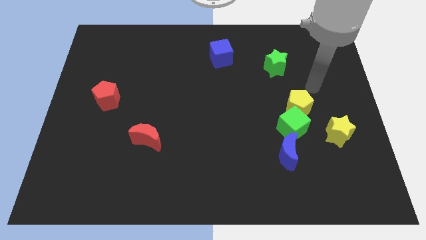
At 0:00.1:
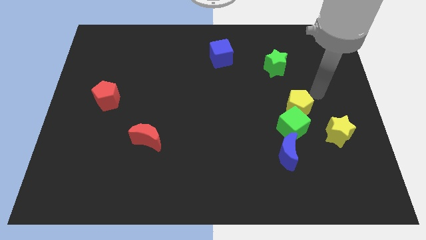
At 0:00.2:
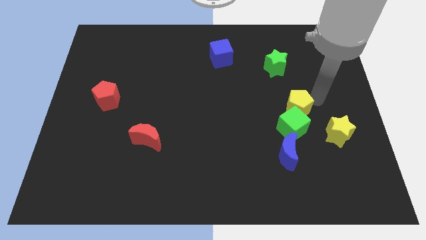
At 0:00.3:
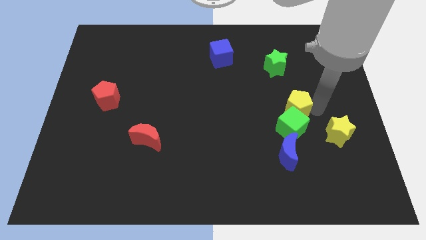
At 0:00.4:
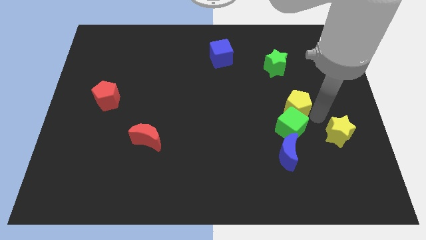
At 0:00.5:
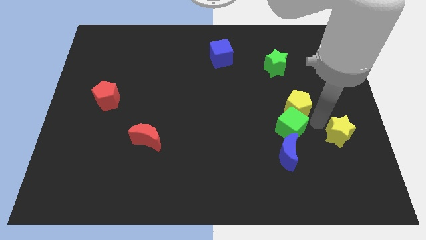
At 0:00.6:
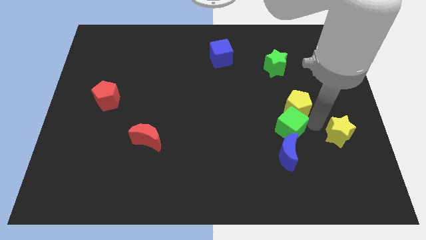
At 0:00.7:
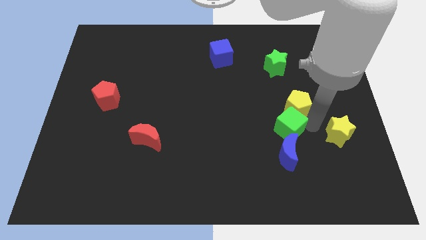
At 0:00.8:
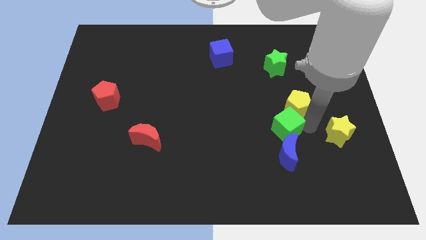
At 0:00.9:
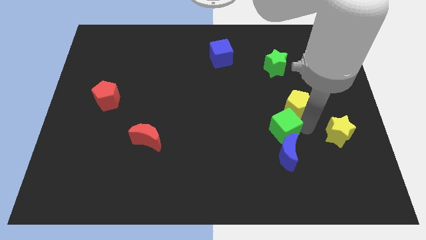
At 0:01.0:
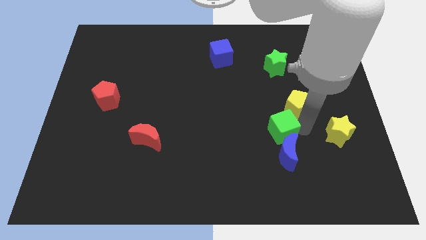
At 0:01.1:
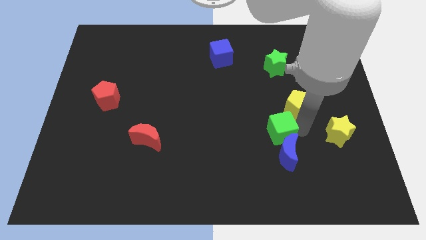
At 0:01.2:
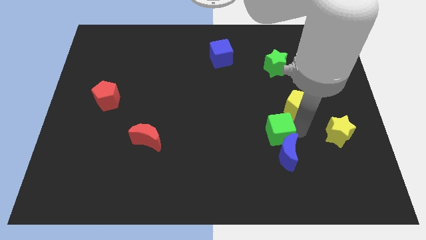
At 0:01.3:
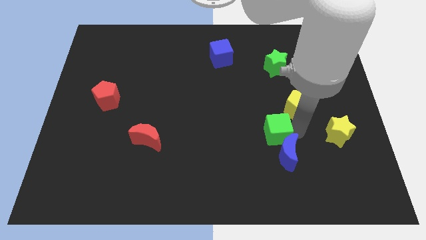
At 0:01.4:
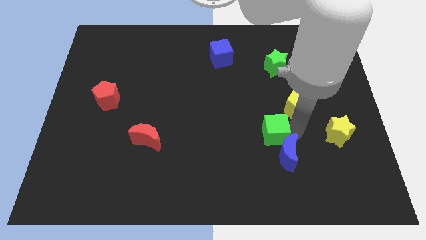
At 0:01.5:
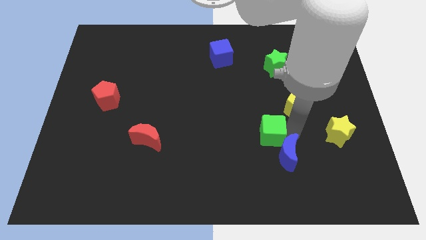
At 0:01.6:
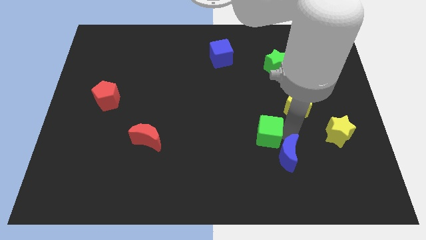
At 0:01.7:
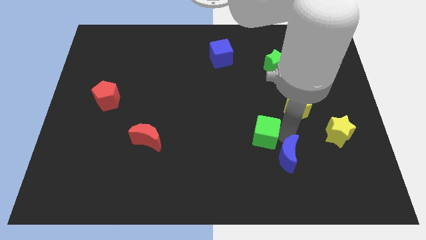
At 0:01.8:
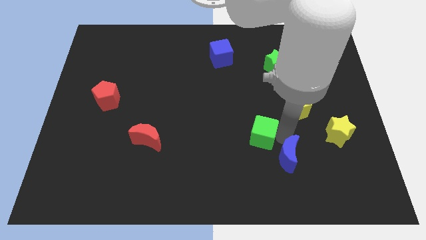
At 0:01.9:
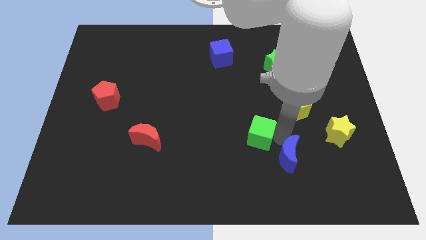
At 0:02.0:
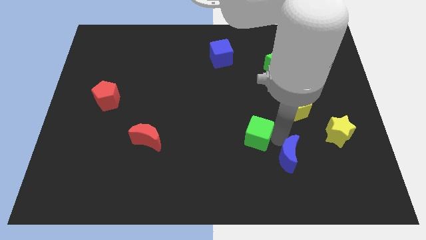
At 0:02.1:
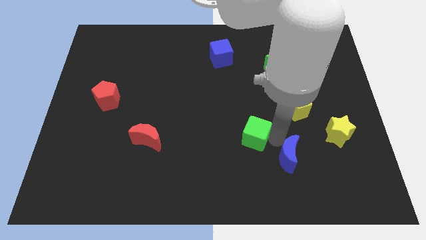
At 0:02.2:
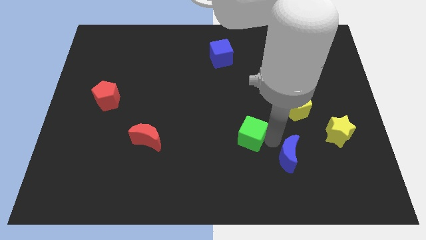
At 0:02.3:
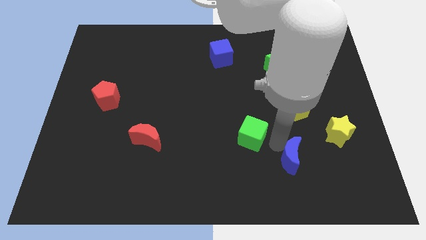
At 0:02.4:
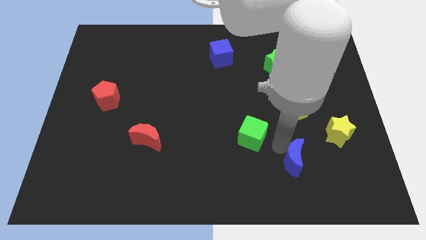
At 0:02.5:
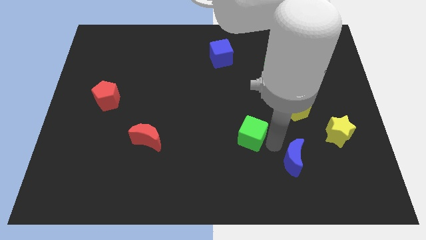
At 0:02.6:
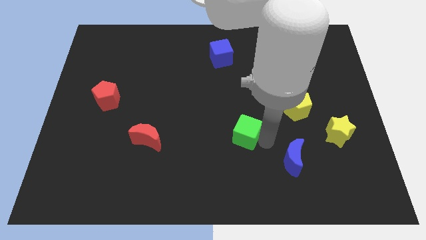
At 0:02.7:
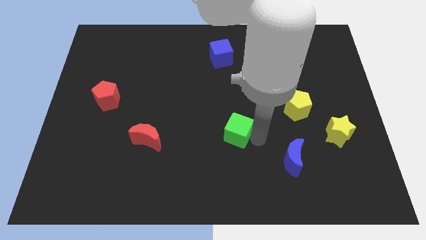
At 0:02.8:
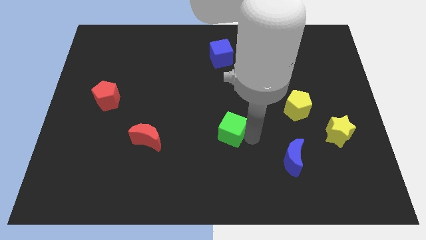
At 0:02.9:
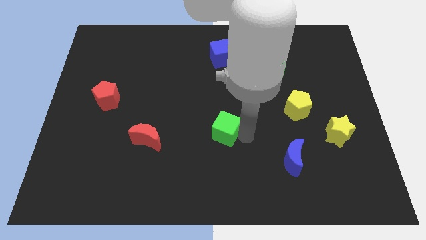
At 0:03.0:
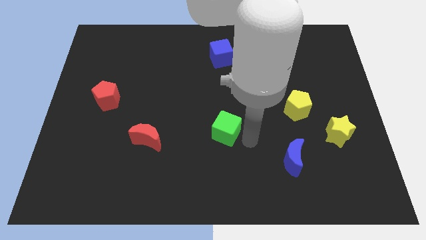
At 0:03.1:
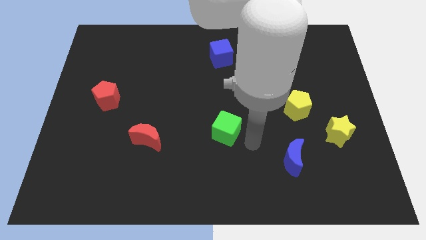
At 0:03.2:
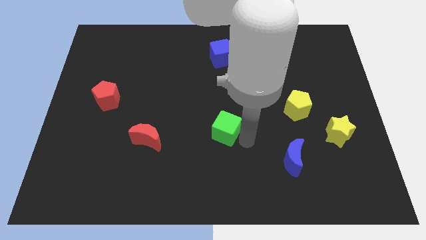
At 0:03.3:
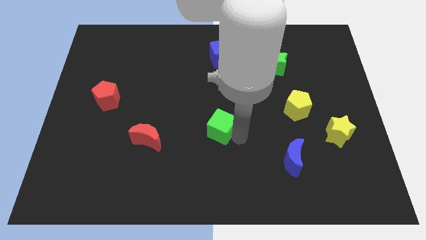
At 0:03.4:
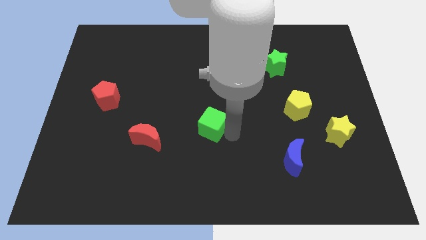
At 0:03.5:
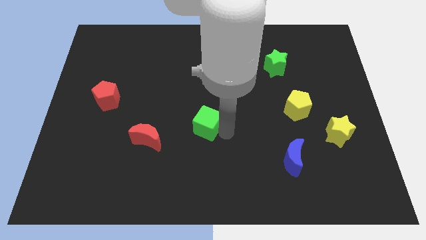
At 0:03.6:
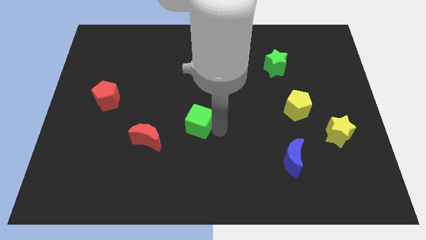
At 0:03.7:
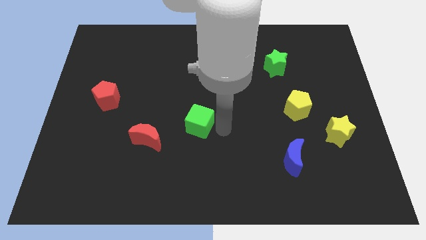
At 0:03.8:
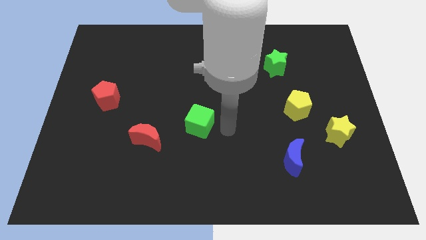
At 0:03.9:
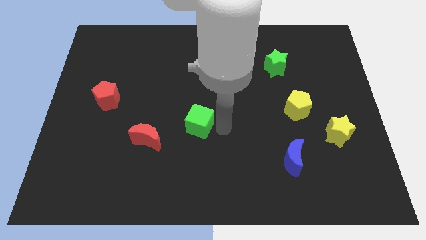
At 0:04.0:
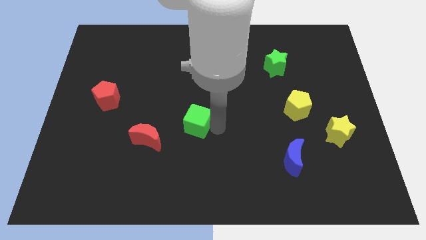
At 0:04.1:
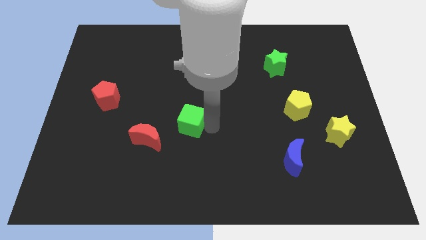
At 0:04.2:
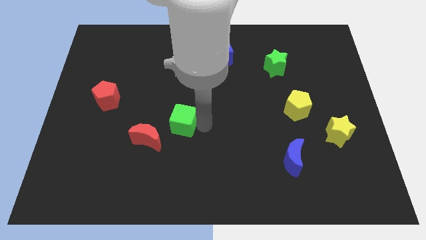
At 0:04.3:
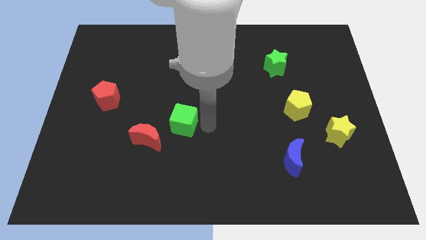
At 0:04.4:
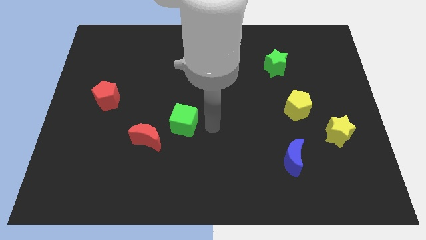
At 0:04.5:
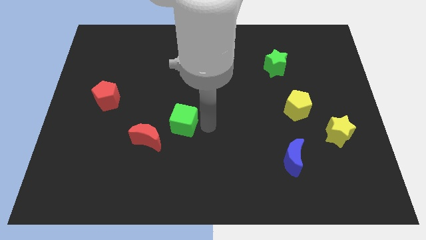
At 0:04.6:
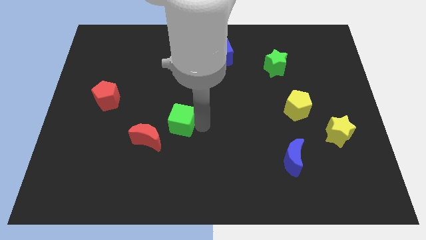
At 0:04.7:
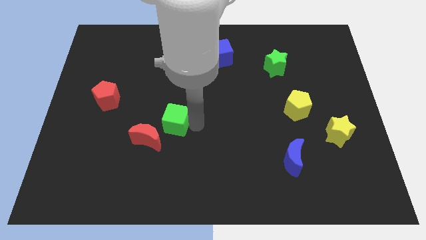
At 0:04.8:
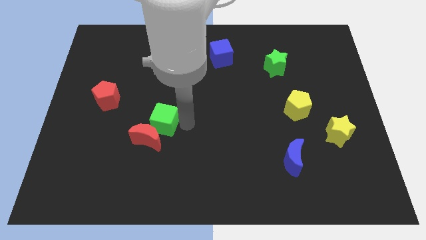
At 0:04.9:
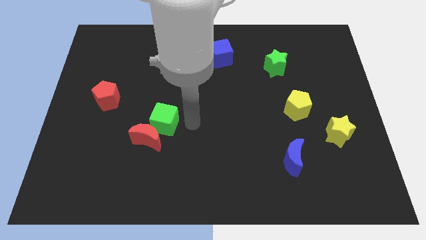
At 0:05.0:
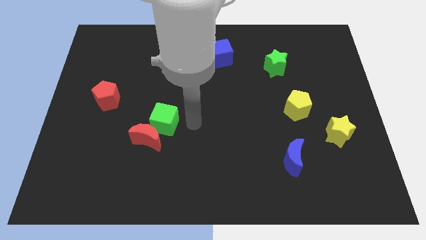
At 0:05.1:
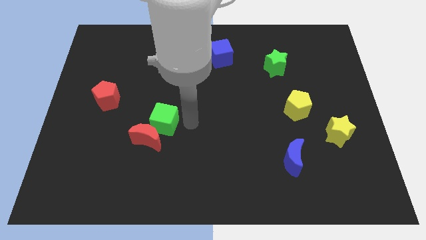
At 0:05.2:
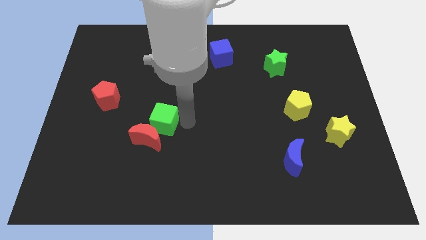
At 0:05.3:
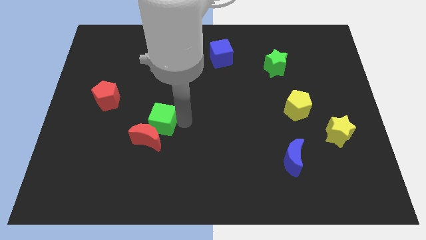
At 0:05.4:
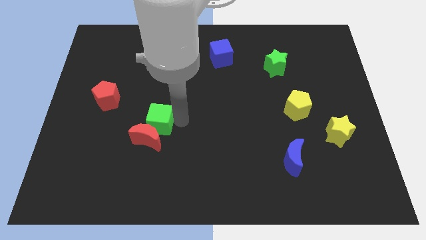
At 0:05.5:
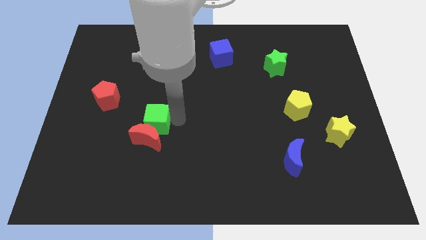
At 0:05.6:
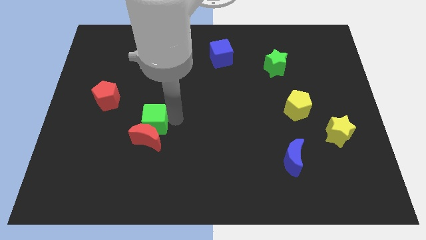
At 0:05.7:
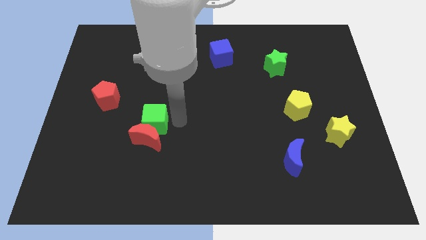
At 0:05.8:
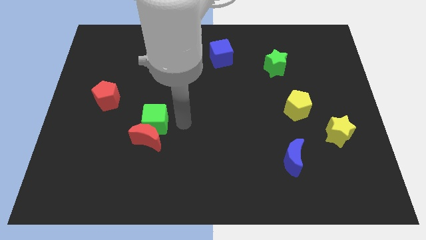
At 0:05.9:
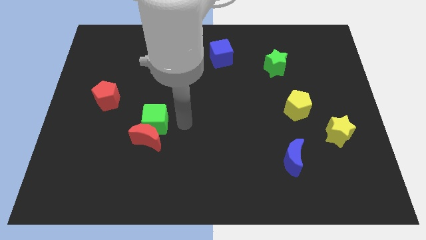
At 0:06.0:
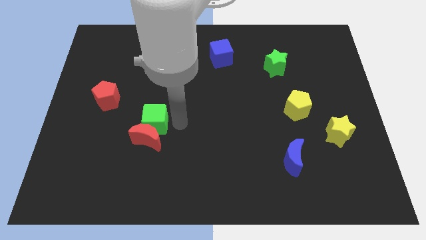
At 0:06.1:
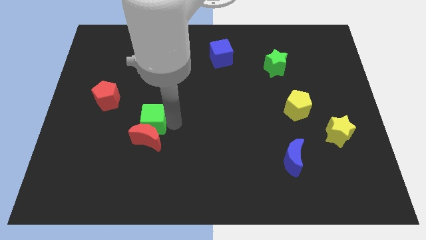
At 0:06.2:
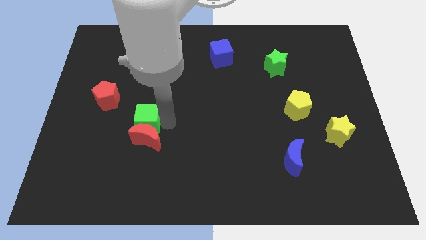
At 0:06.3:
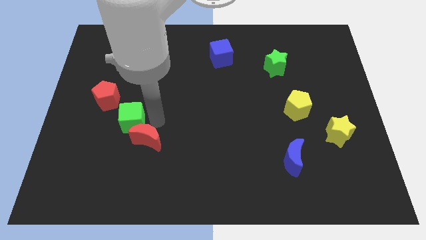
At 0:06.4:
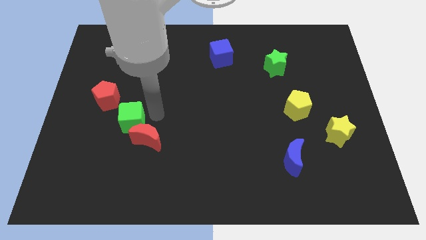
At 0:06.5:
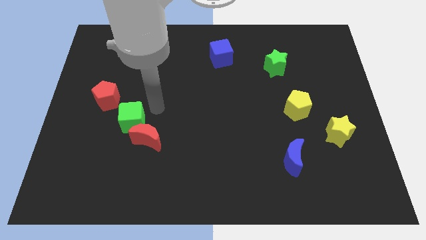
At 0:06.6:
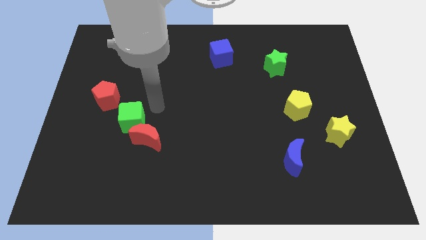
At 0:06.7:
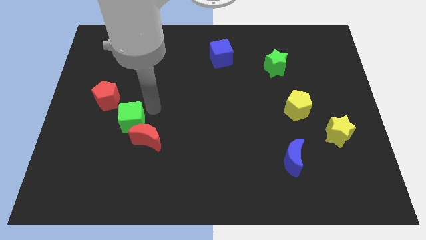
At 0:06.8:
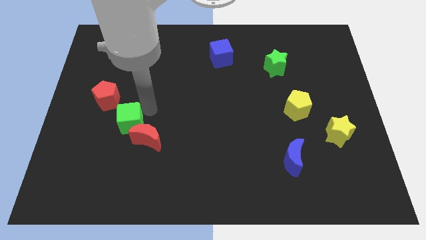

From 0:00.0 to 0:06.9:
put the green cube to the left side of the red moon

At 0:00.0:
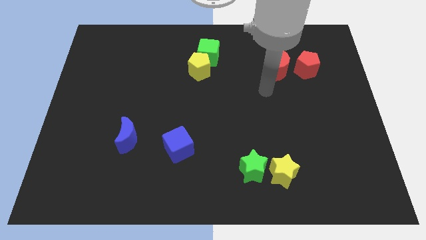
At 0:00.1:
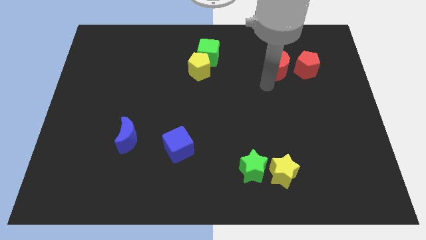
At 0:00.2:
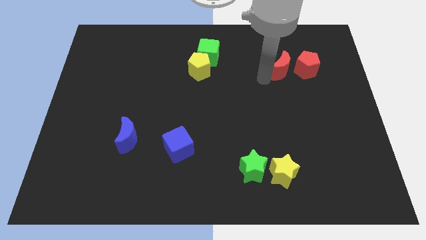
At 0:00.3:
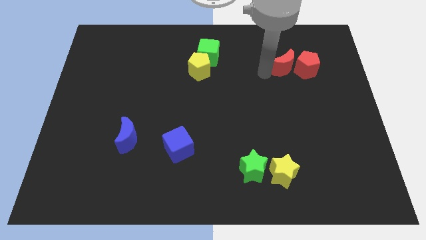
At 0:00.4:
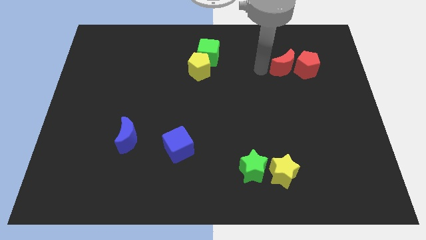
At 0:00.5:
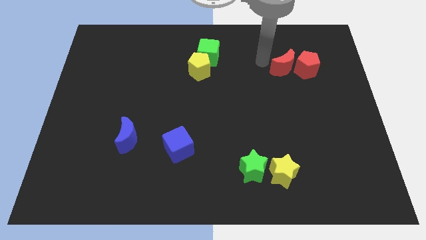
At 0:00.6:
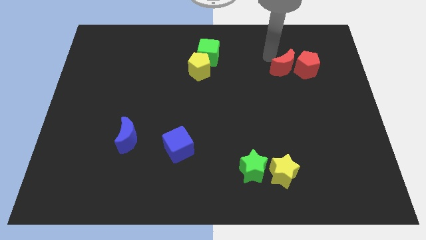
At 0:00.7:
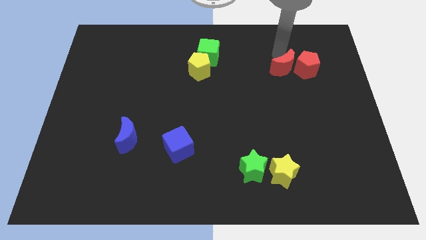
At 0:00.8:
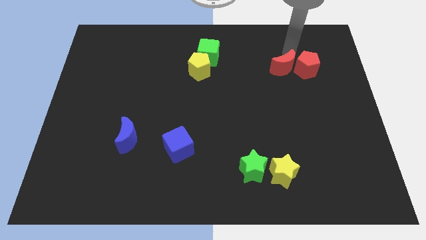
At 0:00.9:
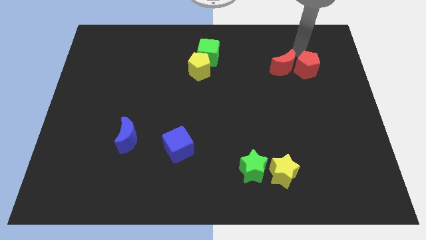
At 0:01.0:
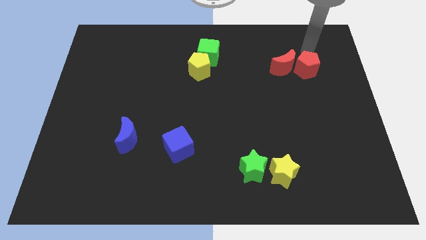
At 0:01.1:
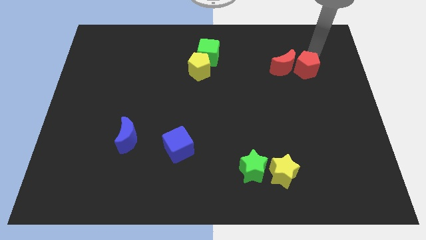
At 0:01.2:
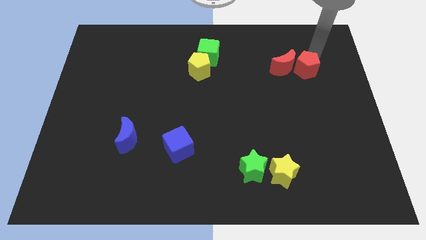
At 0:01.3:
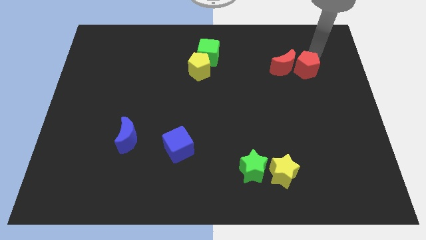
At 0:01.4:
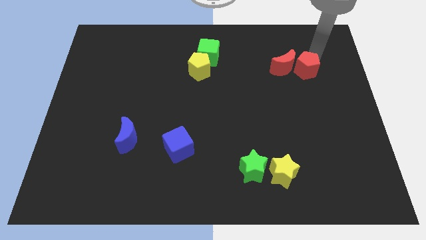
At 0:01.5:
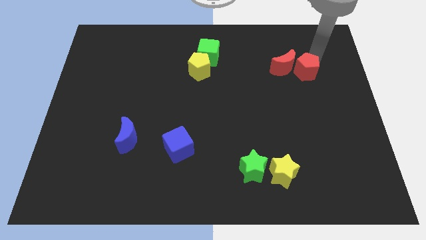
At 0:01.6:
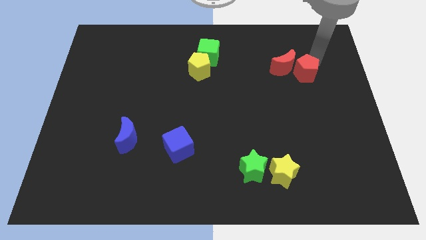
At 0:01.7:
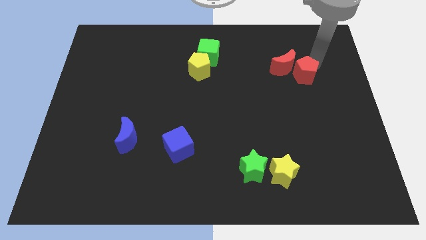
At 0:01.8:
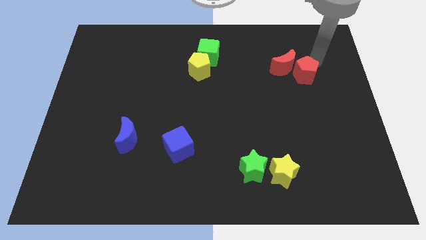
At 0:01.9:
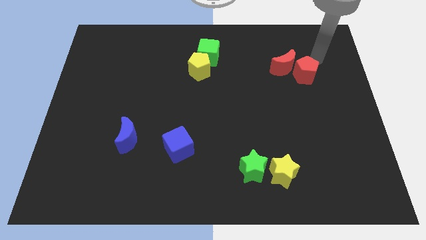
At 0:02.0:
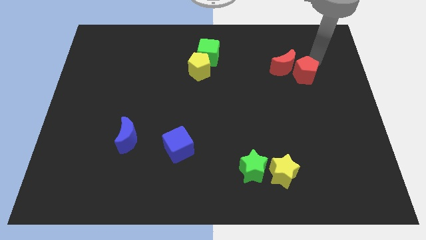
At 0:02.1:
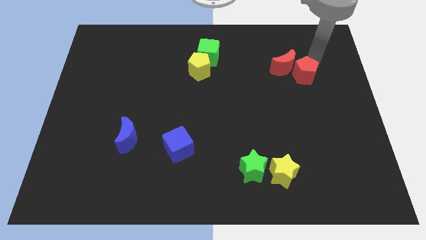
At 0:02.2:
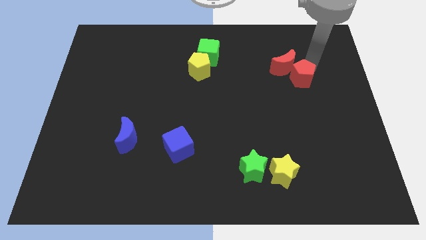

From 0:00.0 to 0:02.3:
put the red pentagon to the bottom side of the red moon
